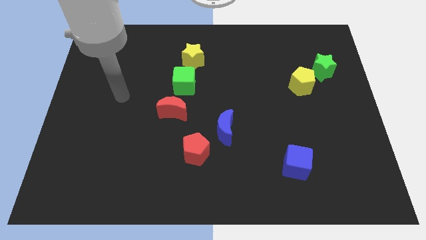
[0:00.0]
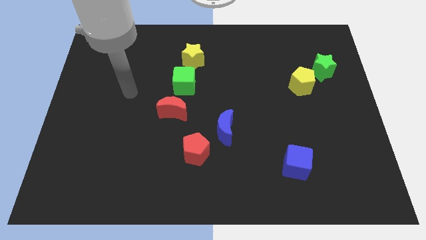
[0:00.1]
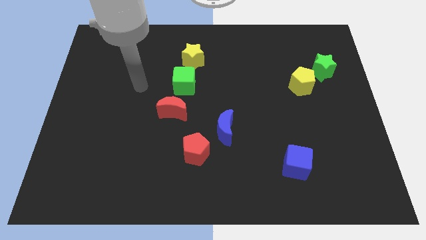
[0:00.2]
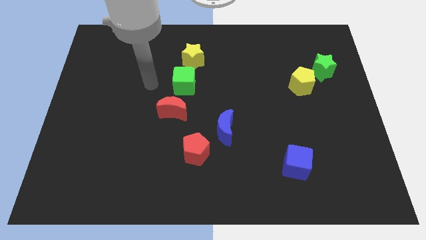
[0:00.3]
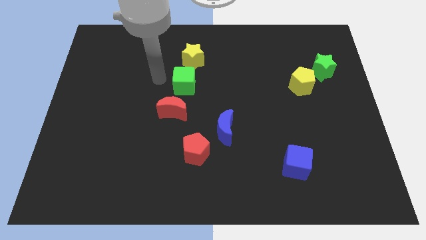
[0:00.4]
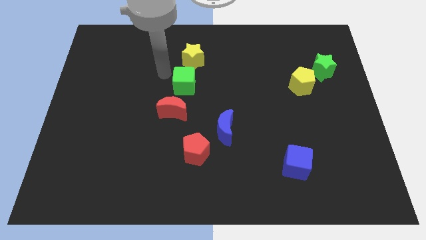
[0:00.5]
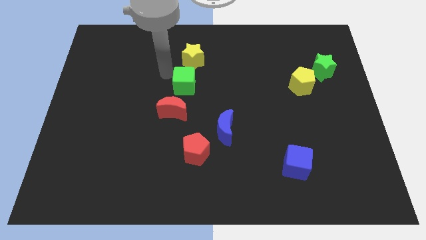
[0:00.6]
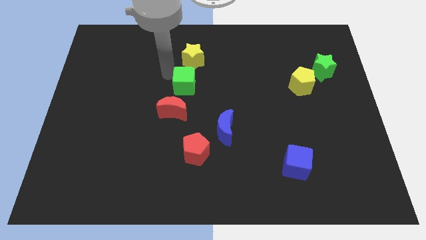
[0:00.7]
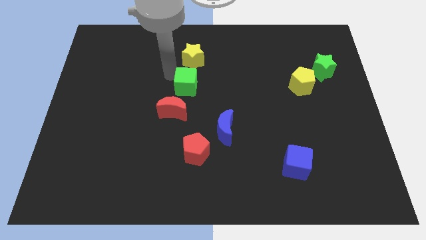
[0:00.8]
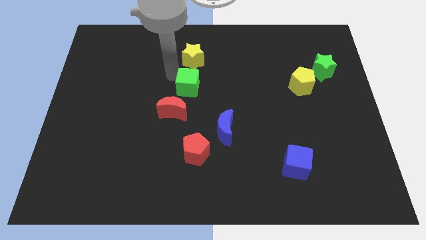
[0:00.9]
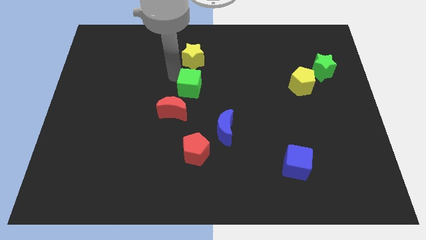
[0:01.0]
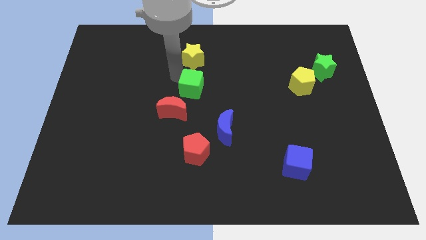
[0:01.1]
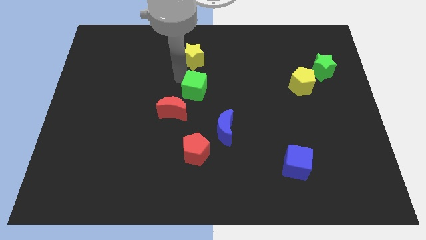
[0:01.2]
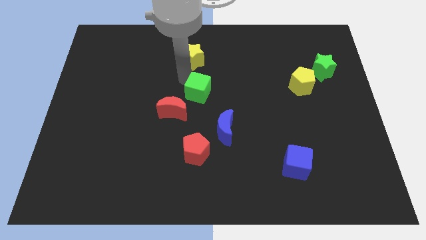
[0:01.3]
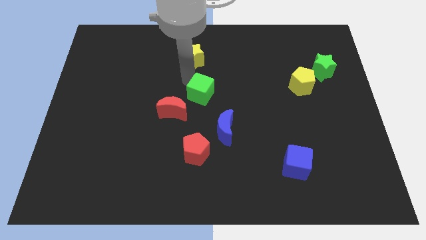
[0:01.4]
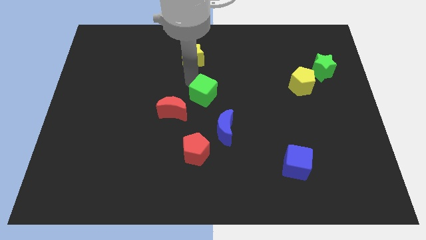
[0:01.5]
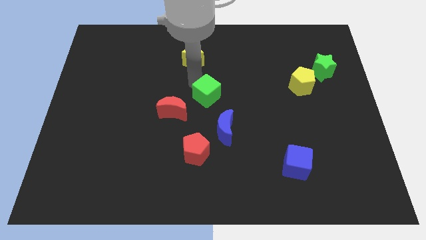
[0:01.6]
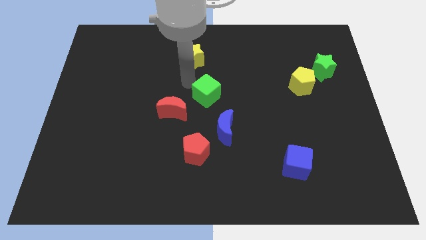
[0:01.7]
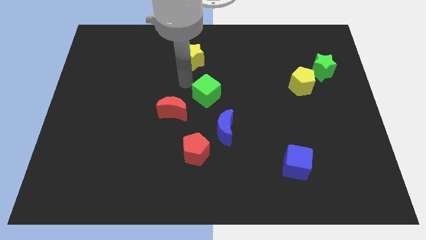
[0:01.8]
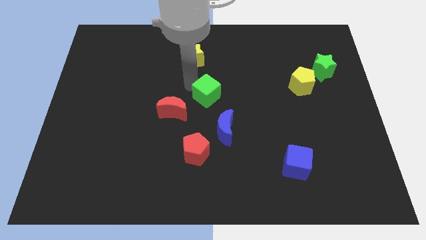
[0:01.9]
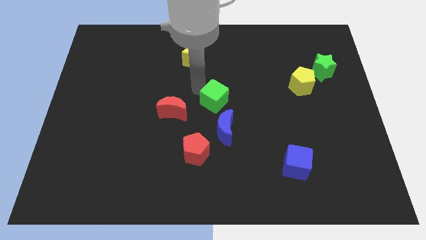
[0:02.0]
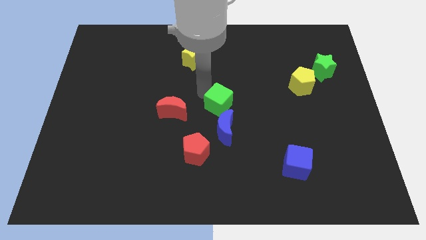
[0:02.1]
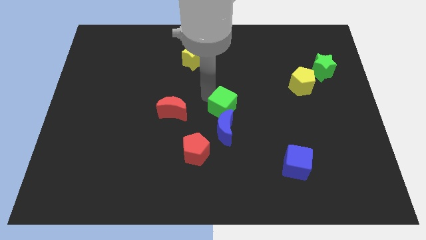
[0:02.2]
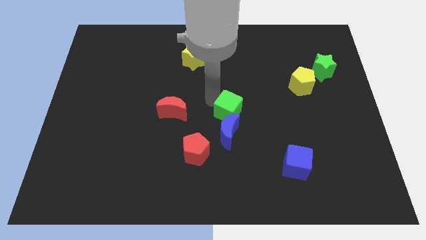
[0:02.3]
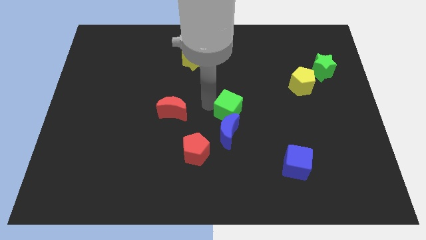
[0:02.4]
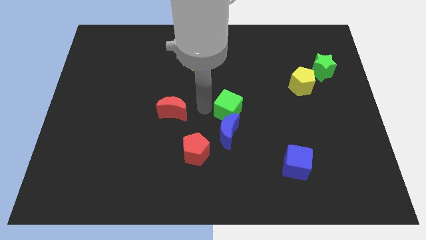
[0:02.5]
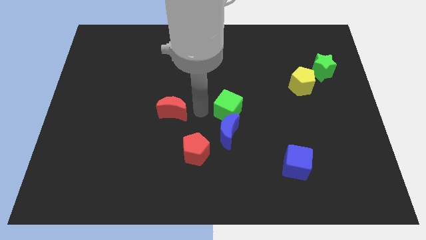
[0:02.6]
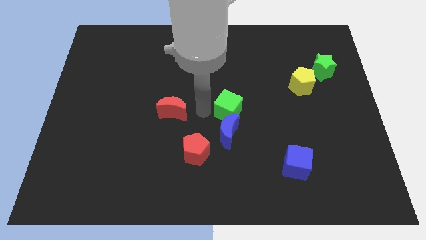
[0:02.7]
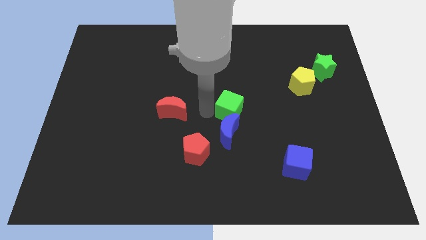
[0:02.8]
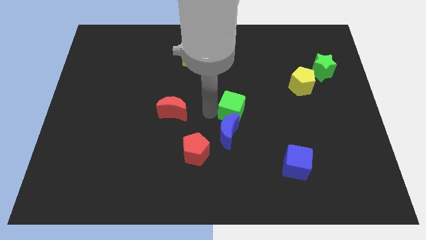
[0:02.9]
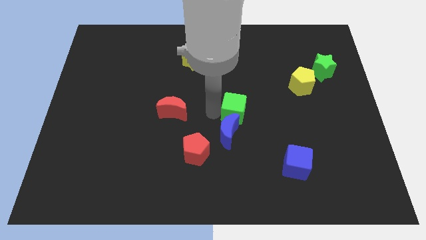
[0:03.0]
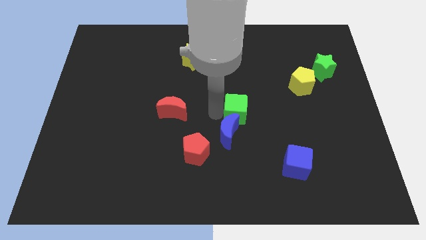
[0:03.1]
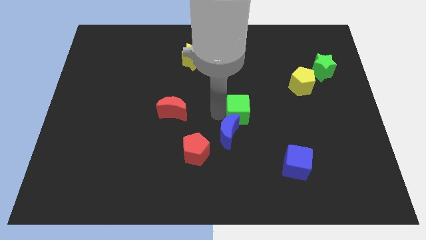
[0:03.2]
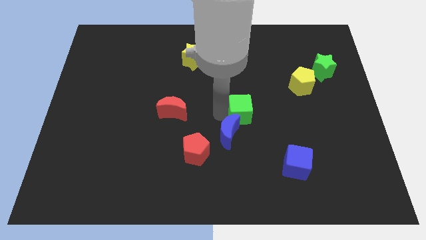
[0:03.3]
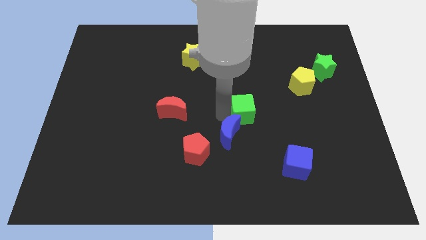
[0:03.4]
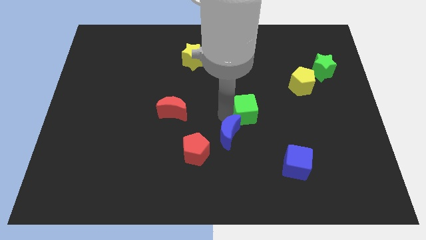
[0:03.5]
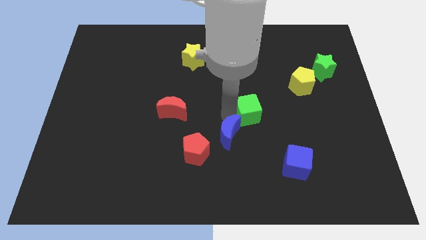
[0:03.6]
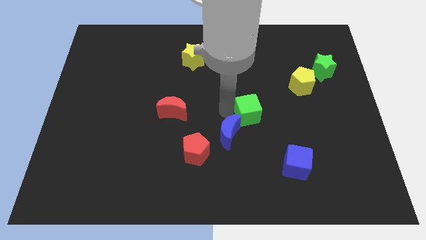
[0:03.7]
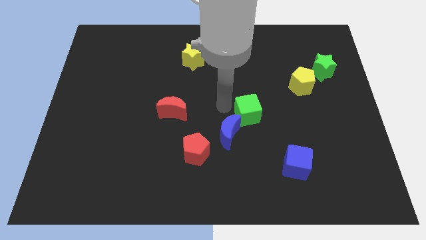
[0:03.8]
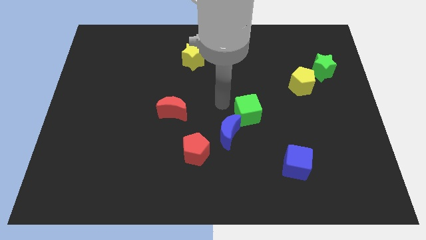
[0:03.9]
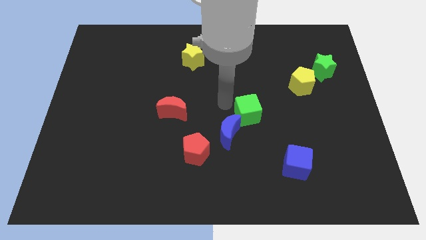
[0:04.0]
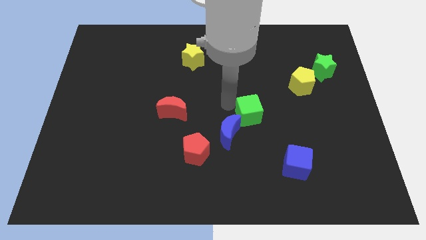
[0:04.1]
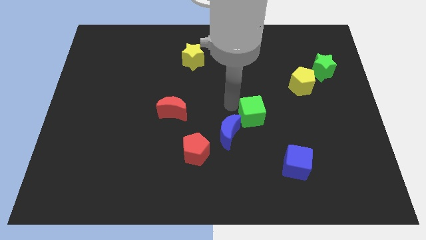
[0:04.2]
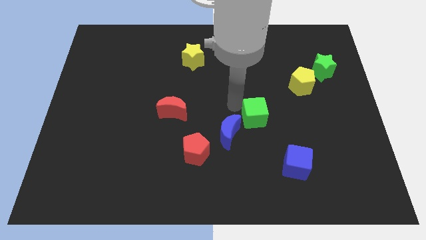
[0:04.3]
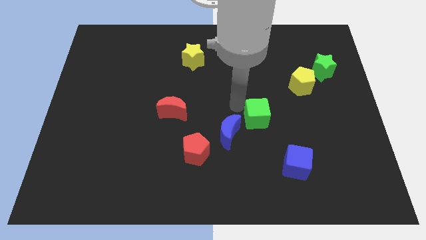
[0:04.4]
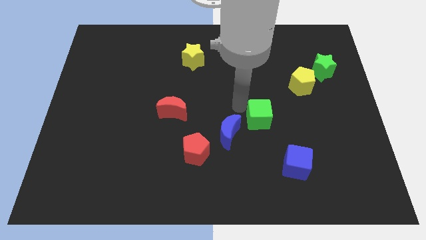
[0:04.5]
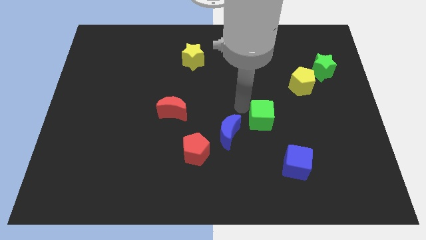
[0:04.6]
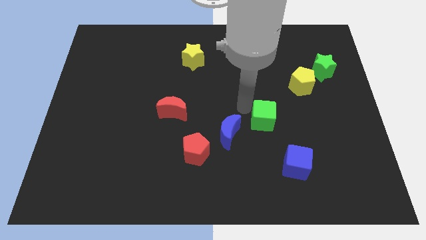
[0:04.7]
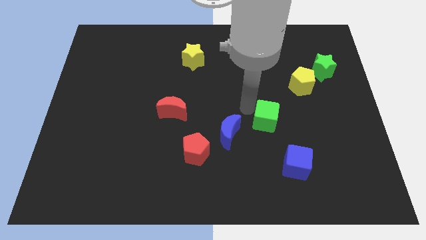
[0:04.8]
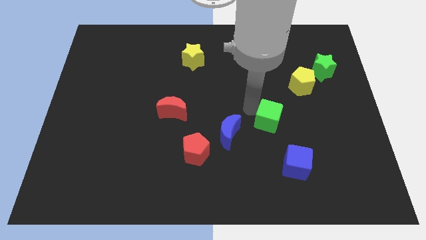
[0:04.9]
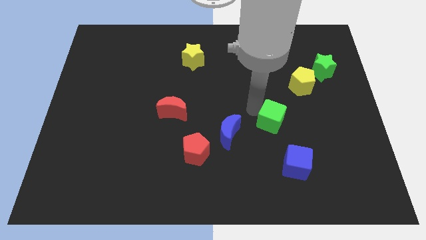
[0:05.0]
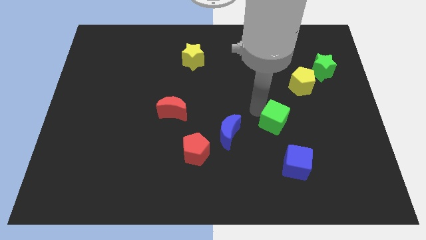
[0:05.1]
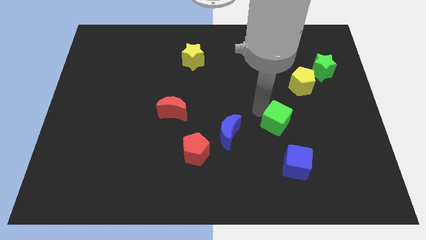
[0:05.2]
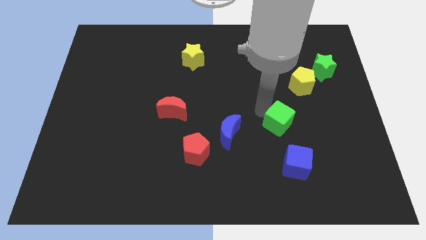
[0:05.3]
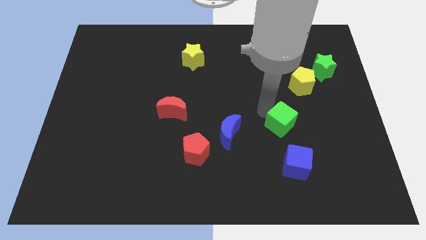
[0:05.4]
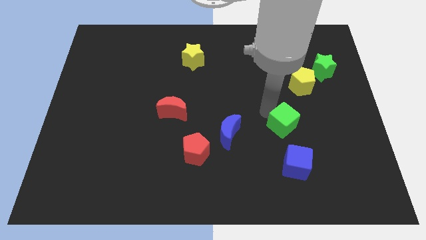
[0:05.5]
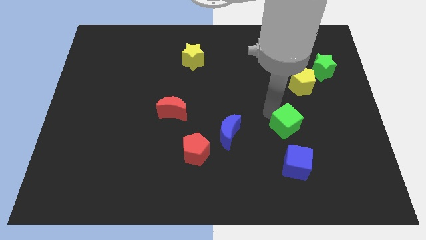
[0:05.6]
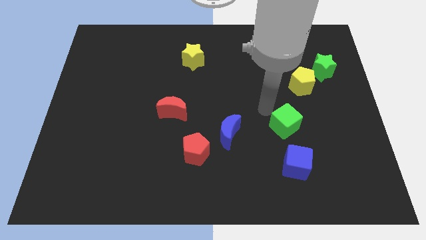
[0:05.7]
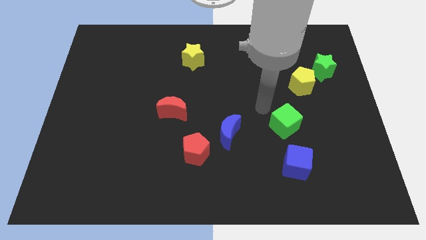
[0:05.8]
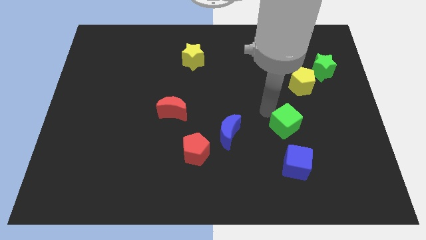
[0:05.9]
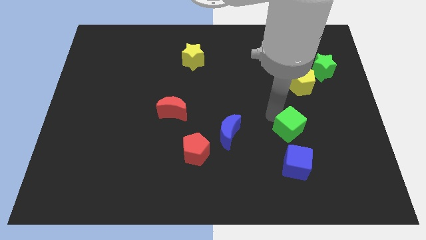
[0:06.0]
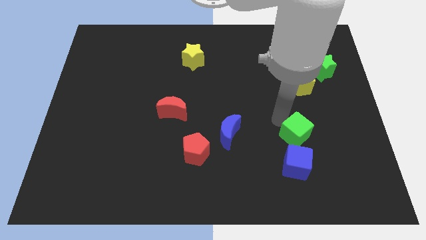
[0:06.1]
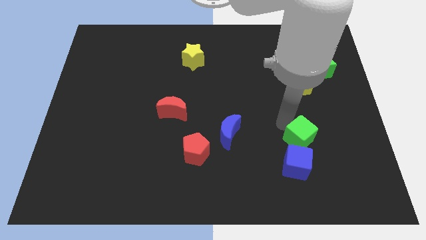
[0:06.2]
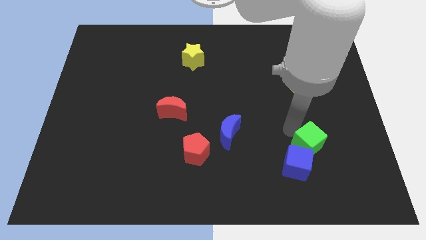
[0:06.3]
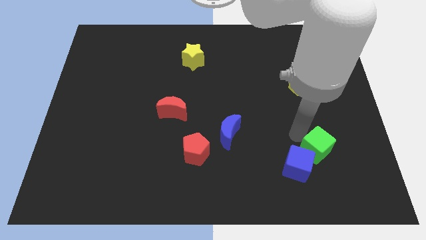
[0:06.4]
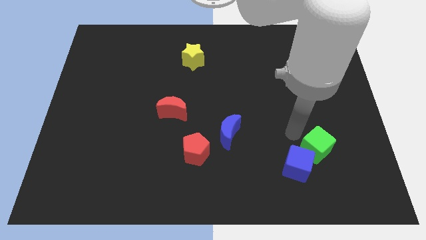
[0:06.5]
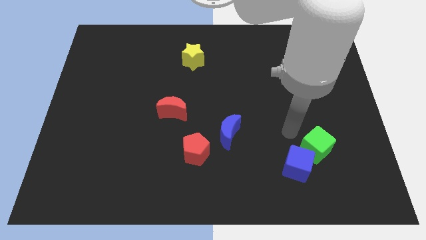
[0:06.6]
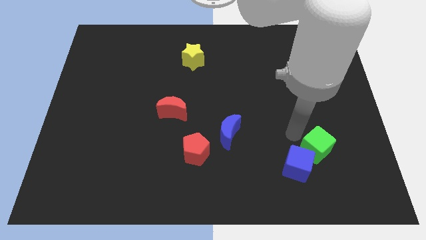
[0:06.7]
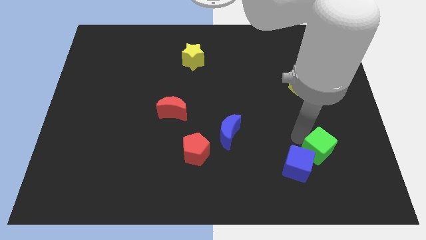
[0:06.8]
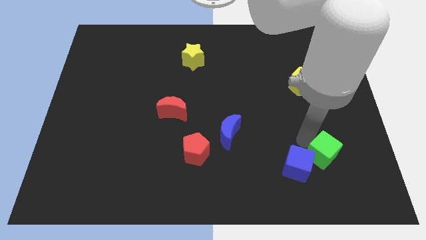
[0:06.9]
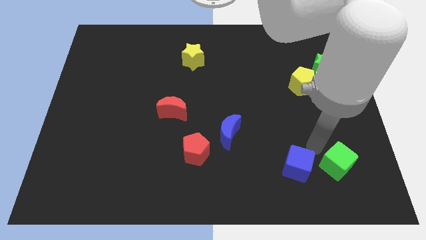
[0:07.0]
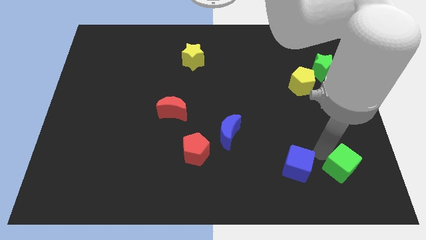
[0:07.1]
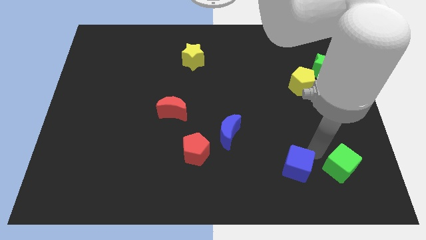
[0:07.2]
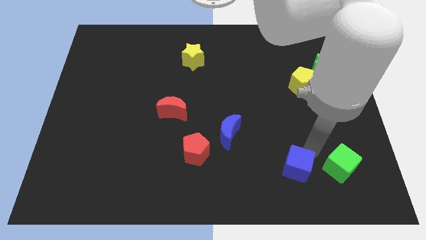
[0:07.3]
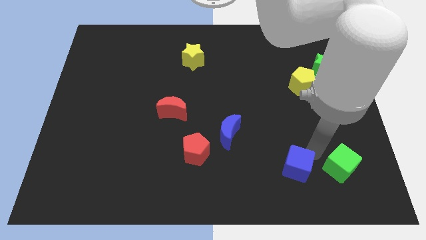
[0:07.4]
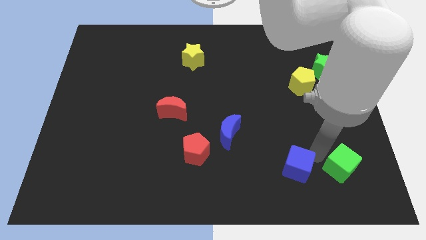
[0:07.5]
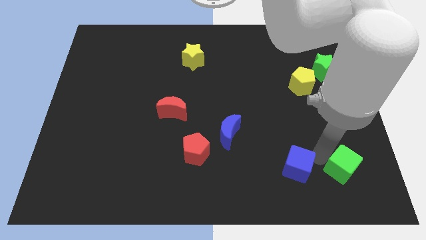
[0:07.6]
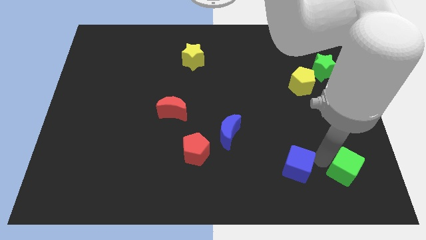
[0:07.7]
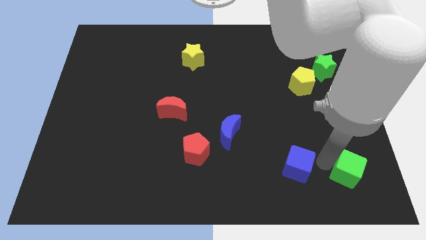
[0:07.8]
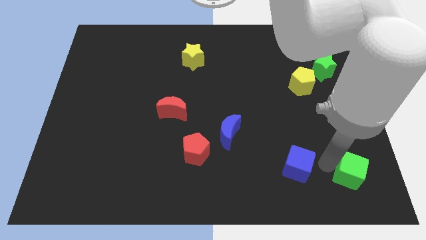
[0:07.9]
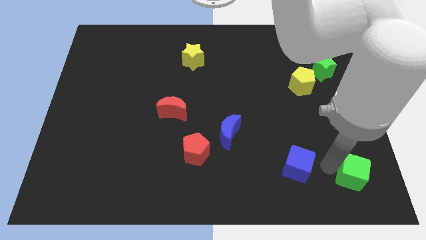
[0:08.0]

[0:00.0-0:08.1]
move the green cube to the bottom right corner
